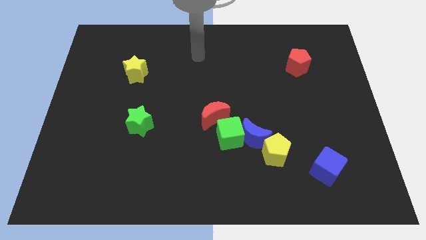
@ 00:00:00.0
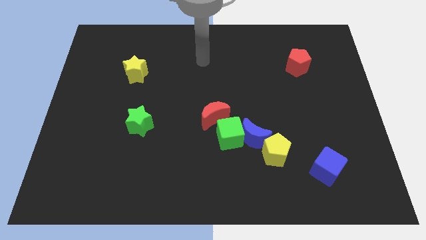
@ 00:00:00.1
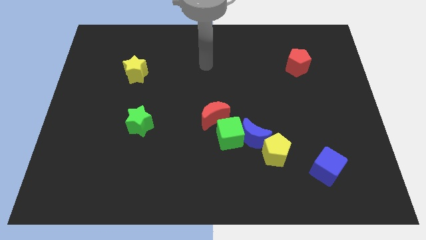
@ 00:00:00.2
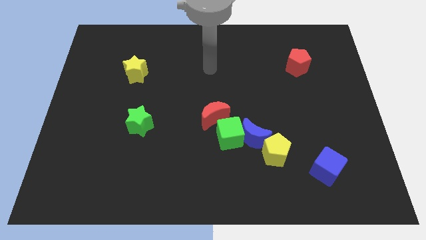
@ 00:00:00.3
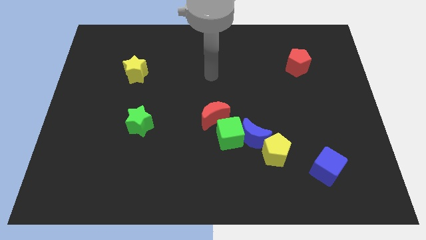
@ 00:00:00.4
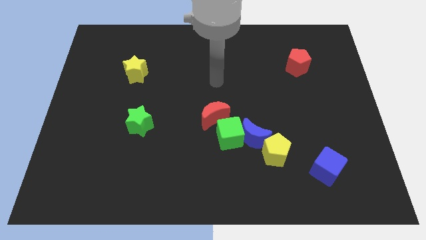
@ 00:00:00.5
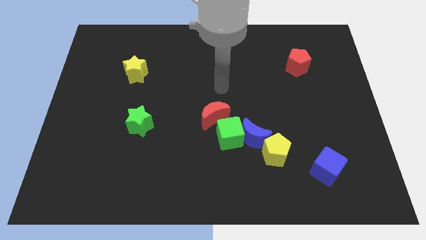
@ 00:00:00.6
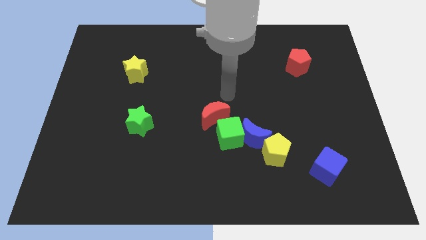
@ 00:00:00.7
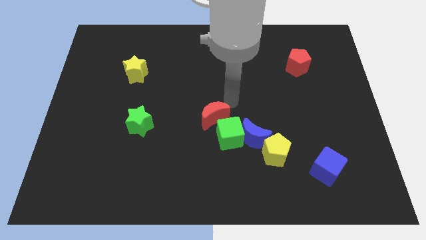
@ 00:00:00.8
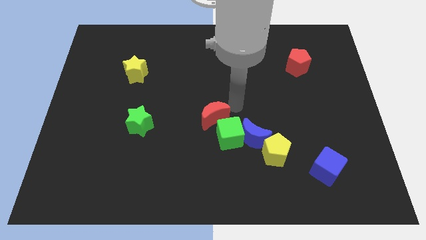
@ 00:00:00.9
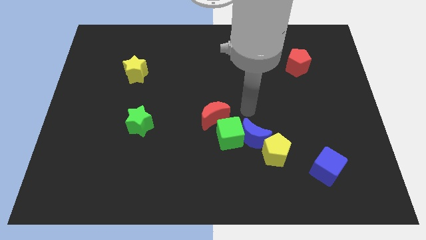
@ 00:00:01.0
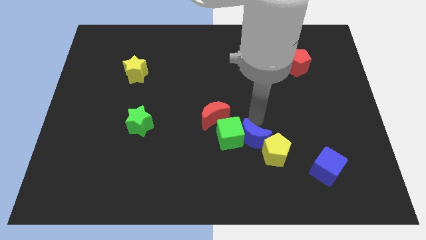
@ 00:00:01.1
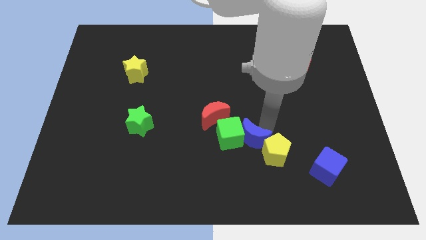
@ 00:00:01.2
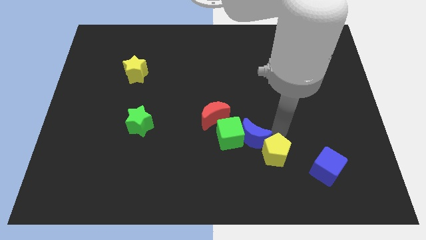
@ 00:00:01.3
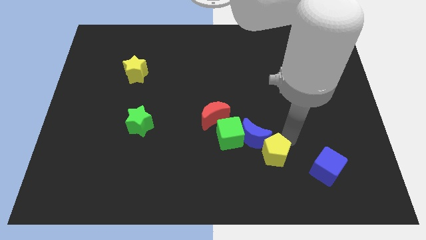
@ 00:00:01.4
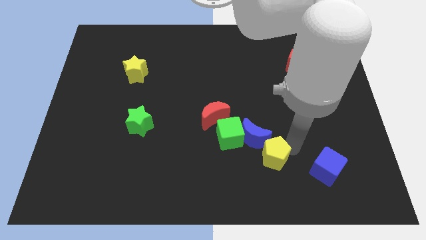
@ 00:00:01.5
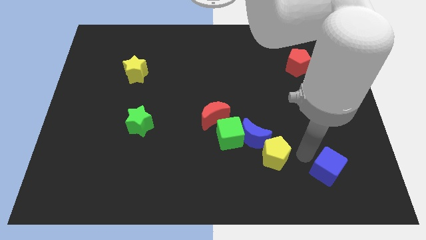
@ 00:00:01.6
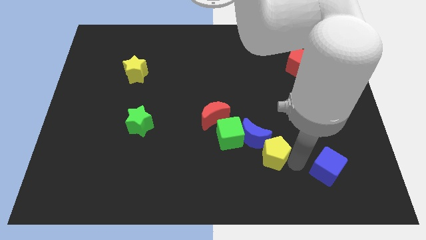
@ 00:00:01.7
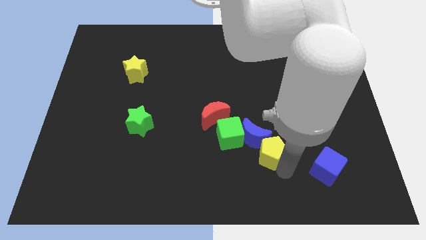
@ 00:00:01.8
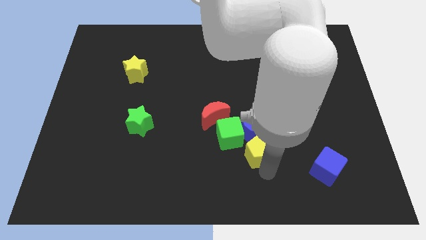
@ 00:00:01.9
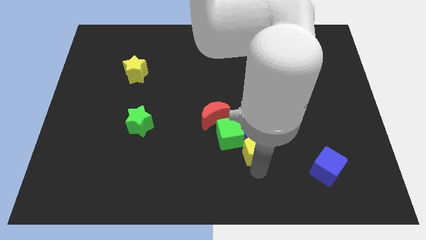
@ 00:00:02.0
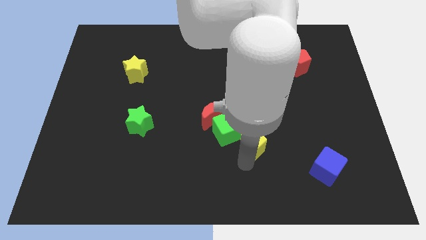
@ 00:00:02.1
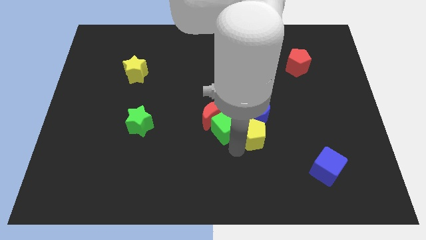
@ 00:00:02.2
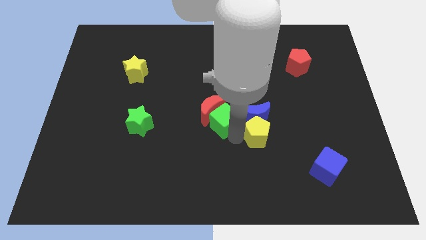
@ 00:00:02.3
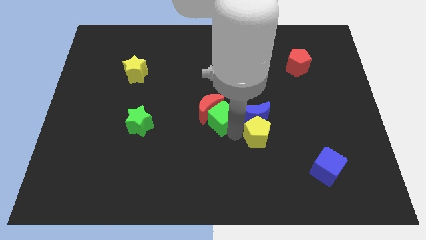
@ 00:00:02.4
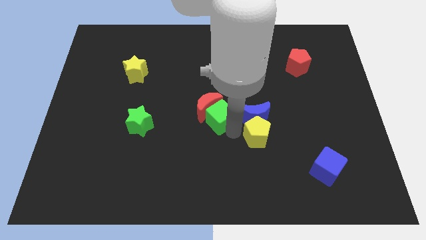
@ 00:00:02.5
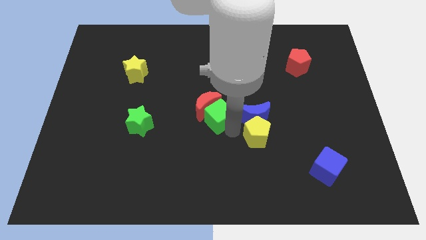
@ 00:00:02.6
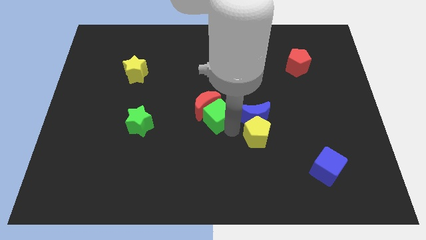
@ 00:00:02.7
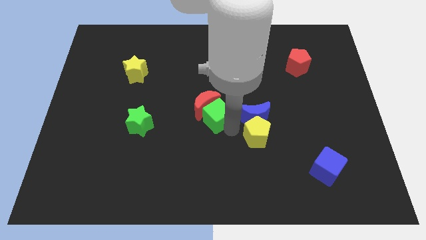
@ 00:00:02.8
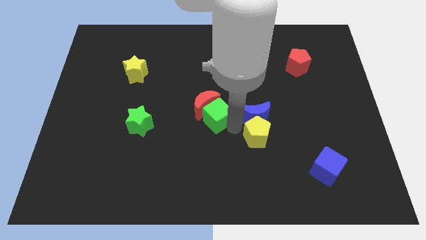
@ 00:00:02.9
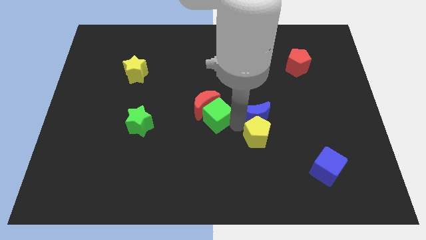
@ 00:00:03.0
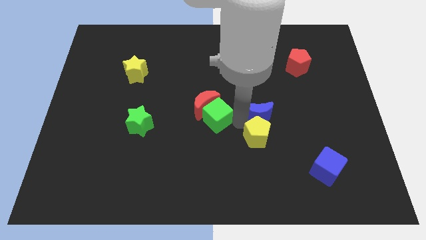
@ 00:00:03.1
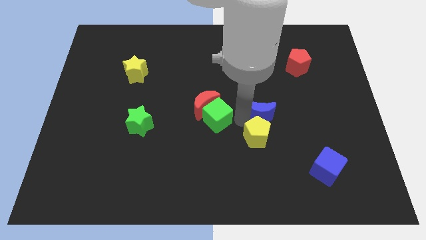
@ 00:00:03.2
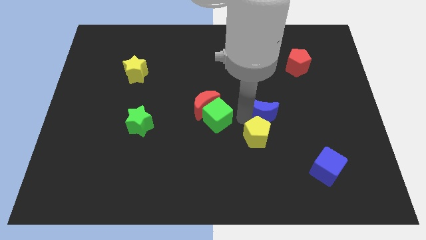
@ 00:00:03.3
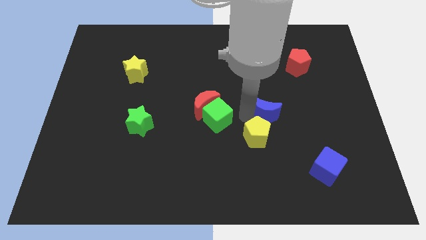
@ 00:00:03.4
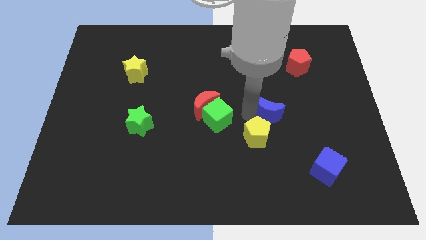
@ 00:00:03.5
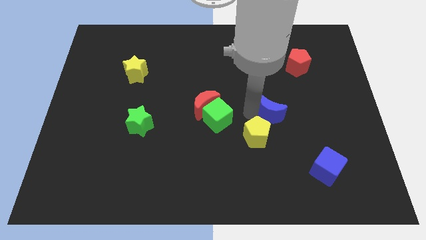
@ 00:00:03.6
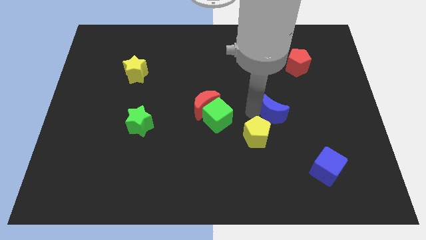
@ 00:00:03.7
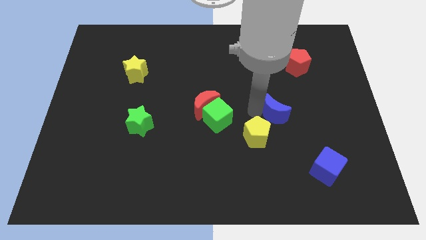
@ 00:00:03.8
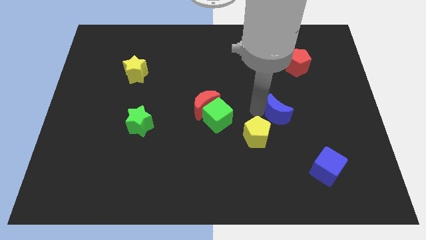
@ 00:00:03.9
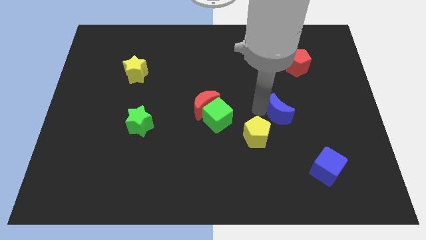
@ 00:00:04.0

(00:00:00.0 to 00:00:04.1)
pull the blue moon apart from the green cube and yellow pentagon

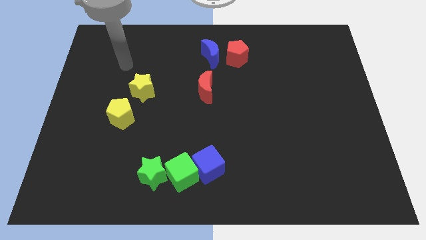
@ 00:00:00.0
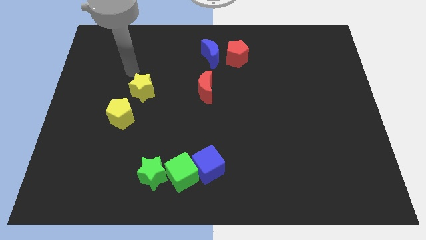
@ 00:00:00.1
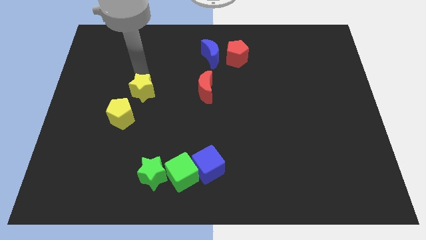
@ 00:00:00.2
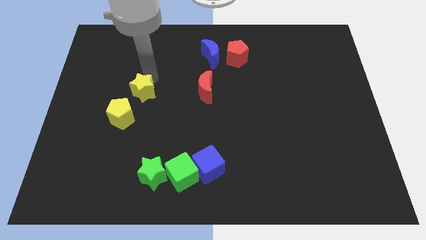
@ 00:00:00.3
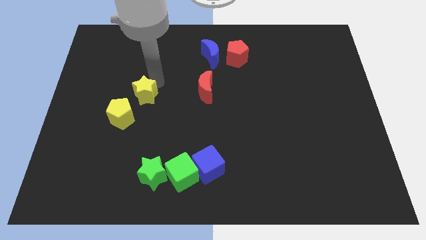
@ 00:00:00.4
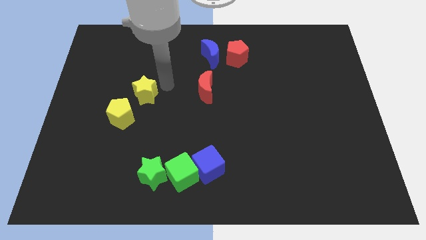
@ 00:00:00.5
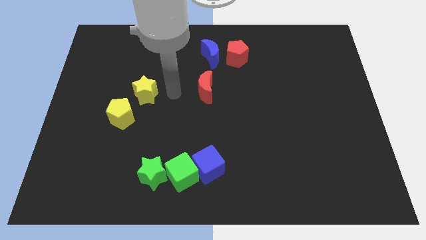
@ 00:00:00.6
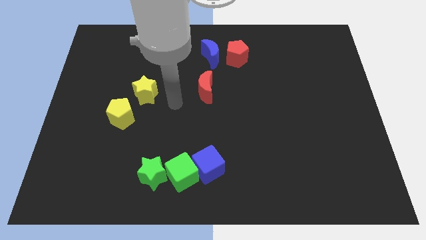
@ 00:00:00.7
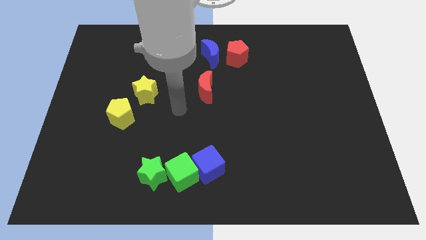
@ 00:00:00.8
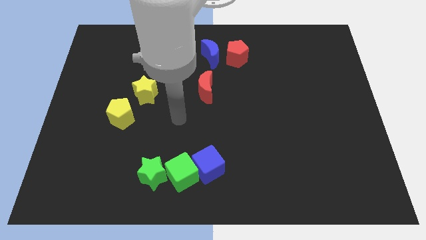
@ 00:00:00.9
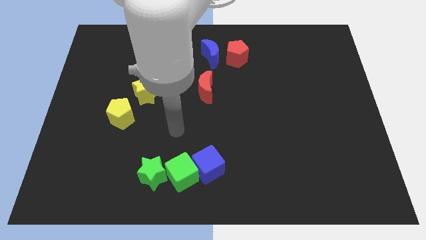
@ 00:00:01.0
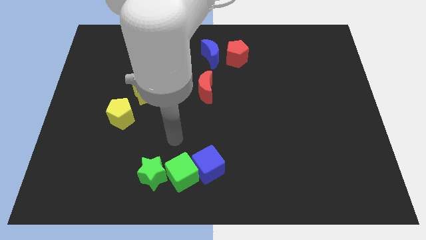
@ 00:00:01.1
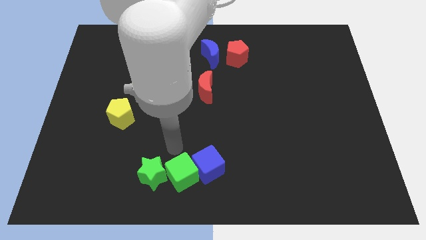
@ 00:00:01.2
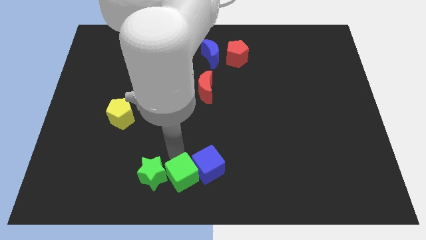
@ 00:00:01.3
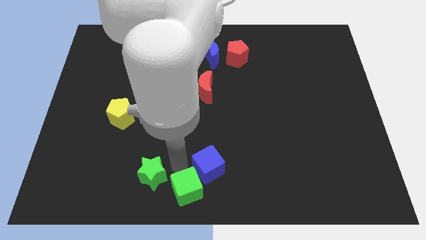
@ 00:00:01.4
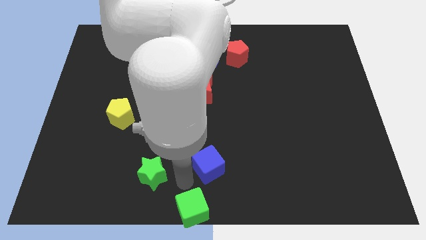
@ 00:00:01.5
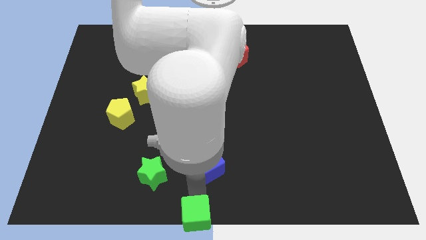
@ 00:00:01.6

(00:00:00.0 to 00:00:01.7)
move the blue cube away from the green cube

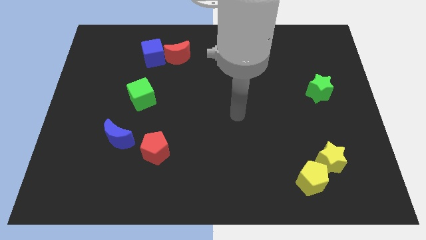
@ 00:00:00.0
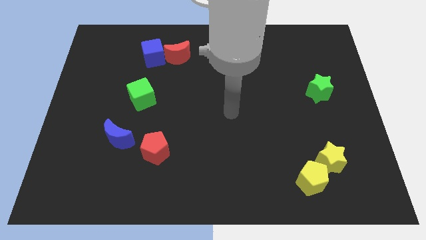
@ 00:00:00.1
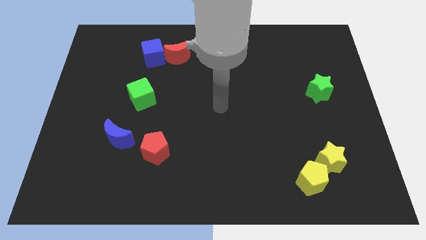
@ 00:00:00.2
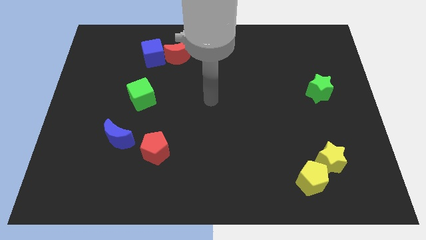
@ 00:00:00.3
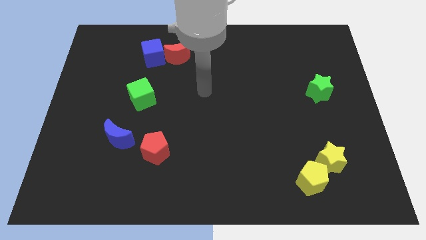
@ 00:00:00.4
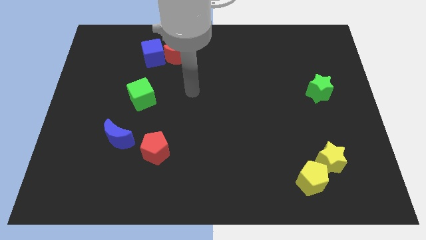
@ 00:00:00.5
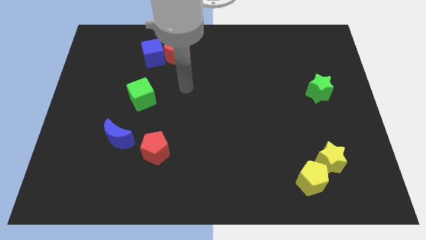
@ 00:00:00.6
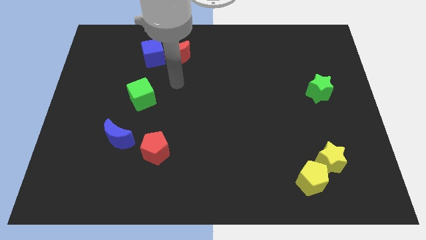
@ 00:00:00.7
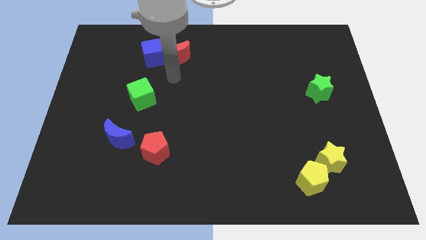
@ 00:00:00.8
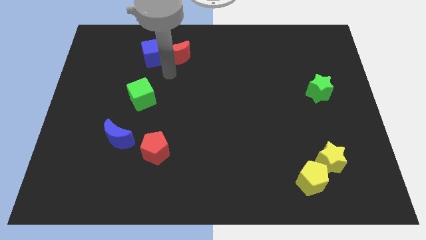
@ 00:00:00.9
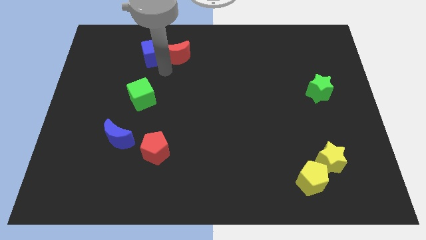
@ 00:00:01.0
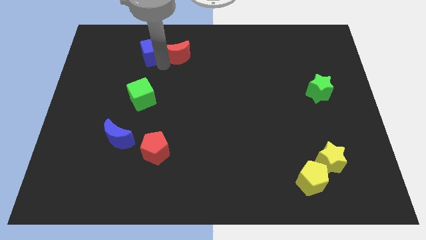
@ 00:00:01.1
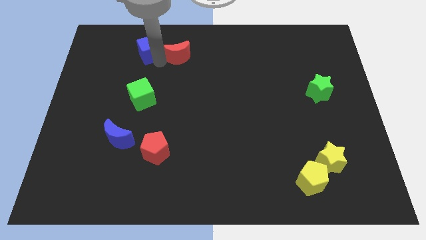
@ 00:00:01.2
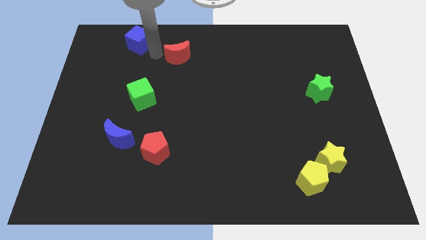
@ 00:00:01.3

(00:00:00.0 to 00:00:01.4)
pull the red moon apart from the blue cube

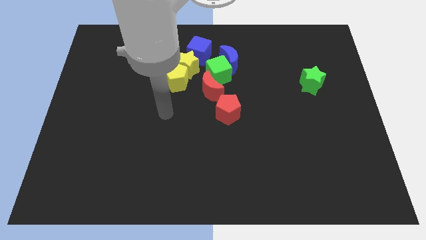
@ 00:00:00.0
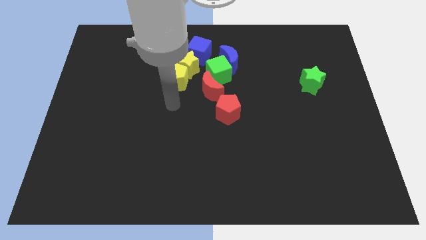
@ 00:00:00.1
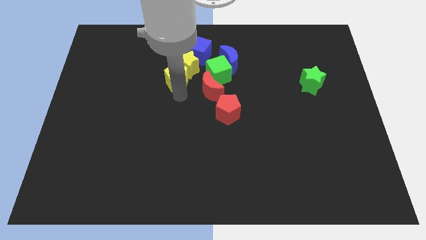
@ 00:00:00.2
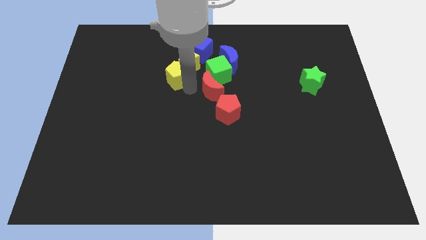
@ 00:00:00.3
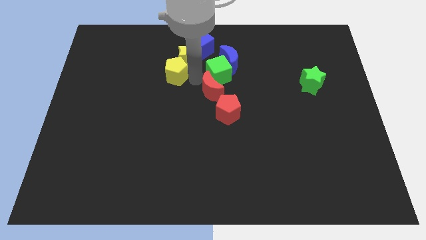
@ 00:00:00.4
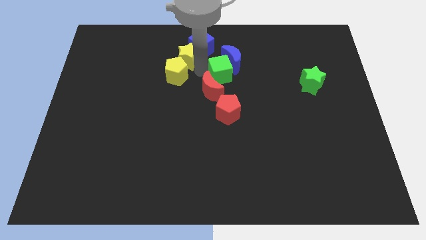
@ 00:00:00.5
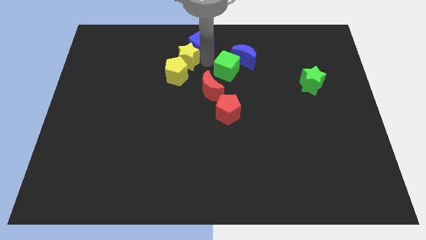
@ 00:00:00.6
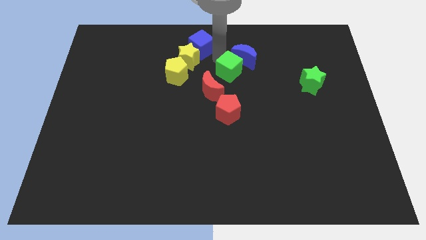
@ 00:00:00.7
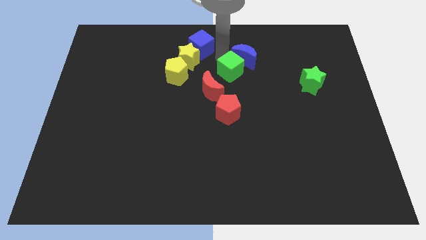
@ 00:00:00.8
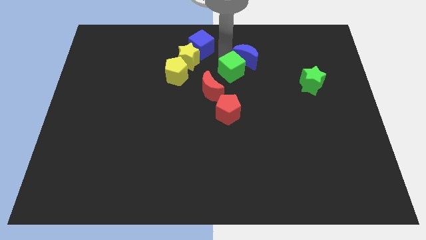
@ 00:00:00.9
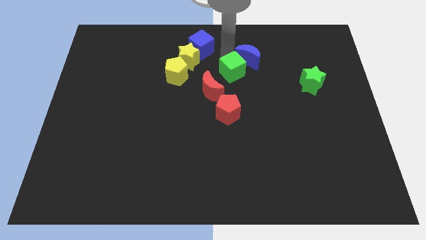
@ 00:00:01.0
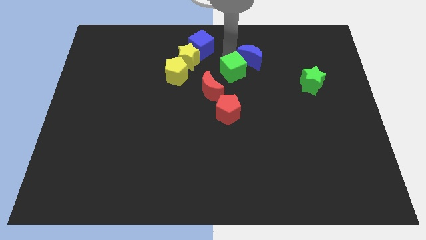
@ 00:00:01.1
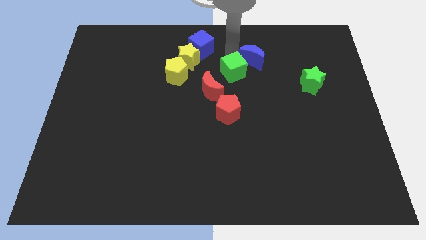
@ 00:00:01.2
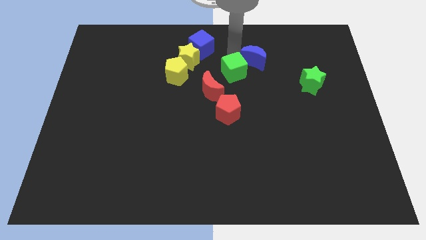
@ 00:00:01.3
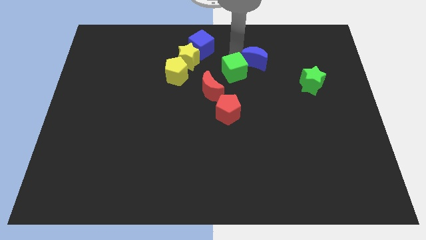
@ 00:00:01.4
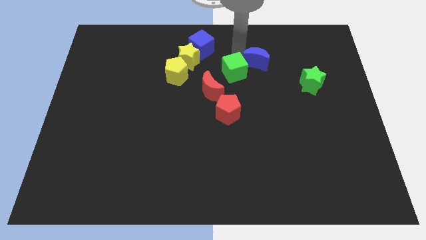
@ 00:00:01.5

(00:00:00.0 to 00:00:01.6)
pull the blue moon apart from the green cube and blue cube

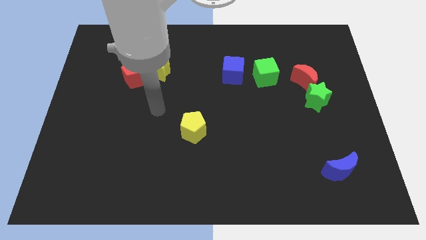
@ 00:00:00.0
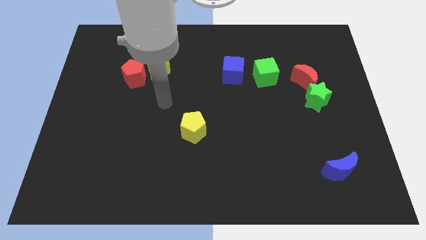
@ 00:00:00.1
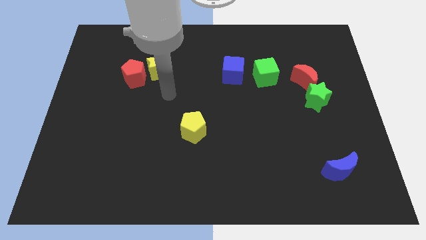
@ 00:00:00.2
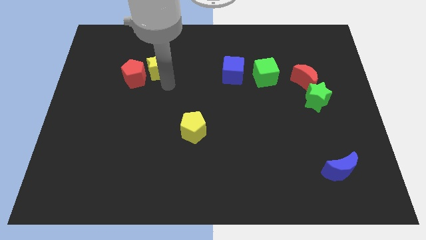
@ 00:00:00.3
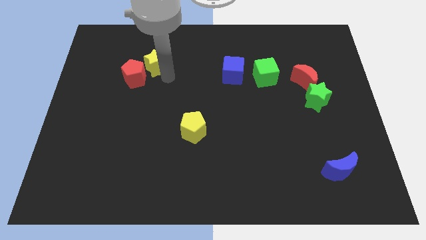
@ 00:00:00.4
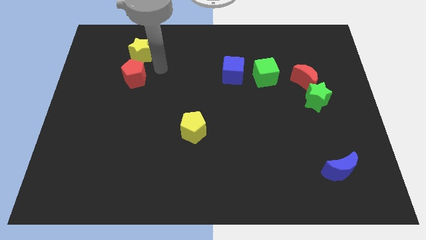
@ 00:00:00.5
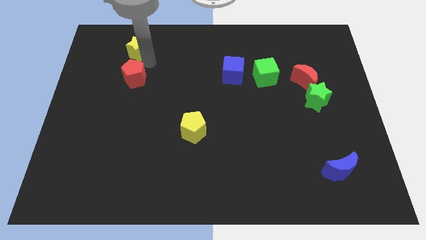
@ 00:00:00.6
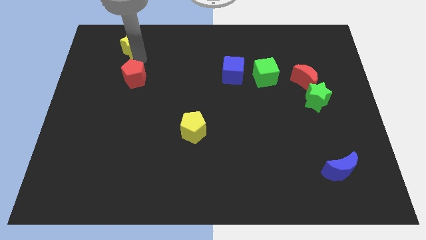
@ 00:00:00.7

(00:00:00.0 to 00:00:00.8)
separate the red pentagon from the yellow star
